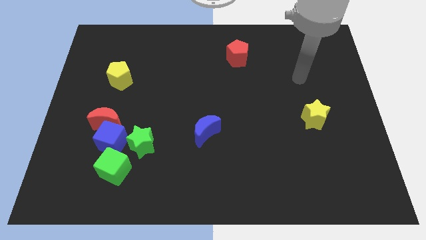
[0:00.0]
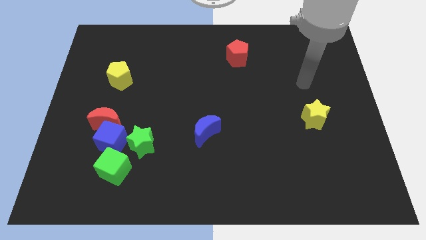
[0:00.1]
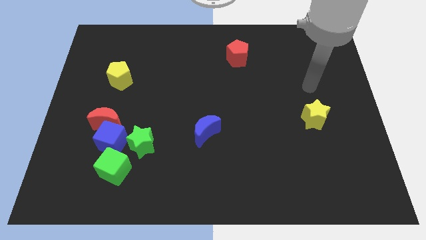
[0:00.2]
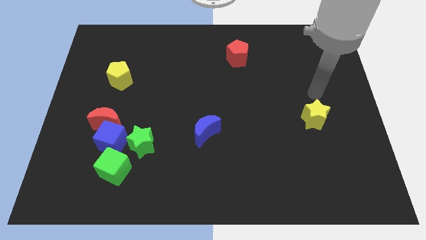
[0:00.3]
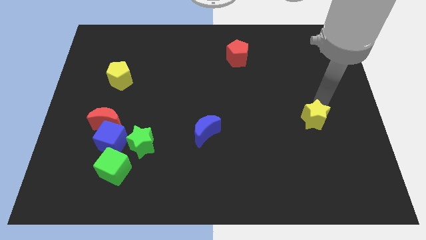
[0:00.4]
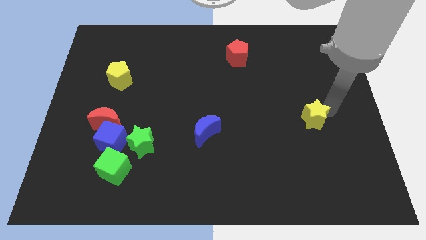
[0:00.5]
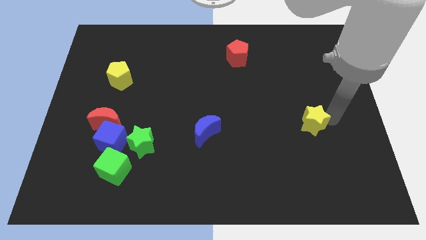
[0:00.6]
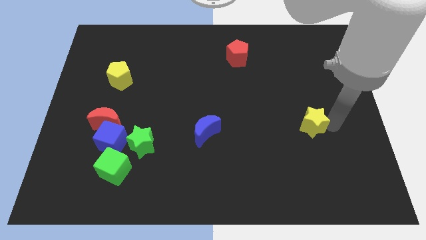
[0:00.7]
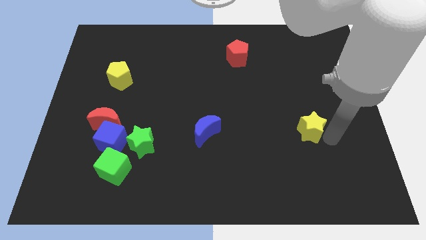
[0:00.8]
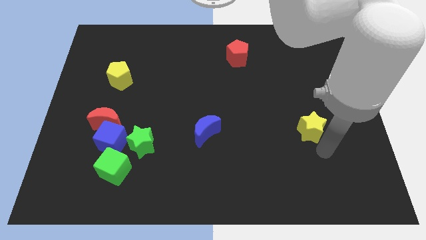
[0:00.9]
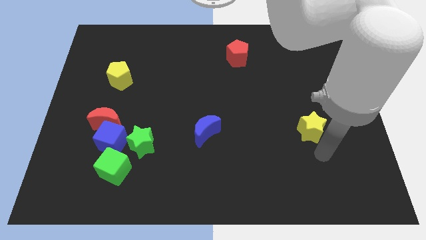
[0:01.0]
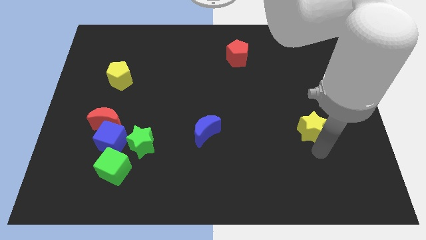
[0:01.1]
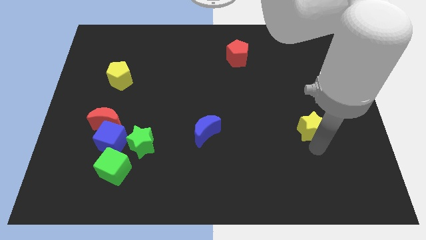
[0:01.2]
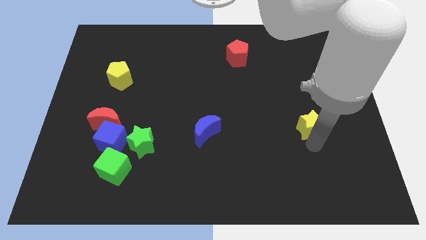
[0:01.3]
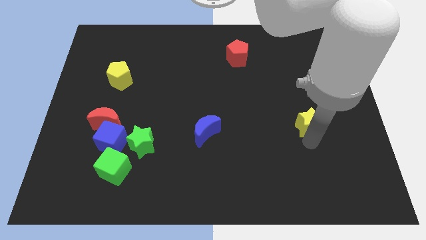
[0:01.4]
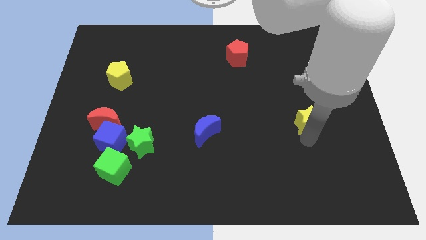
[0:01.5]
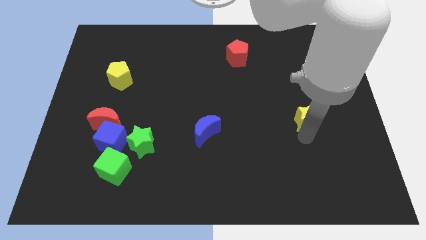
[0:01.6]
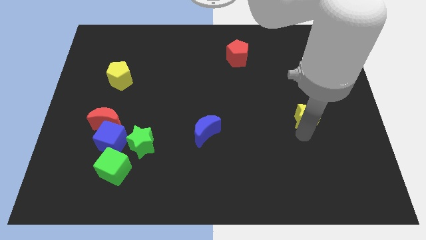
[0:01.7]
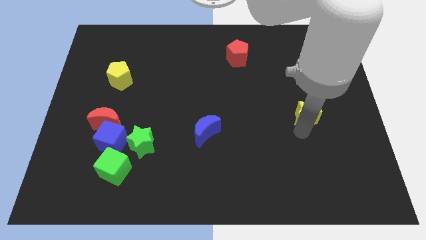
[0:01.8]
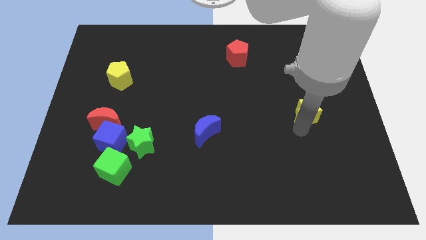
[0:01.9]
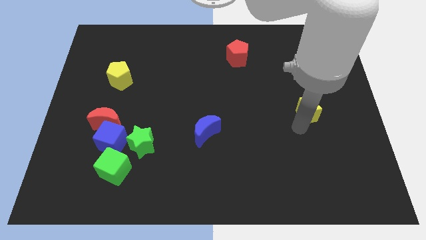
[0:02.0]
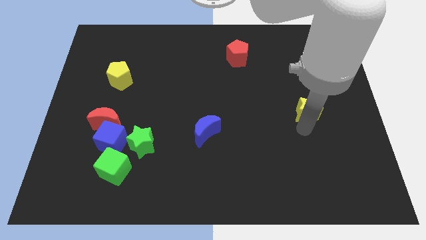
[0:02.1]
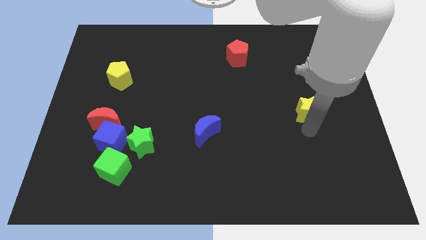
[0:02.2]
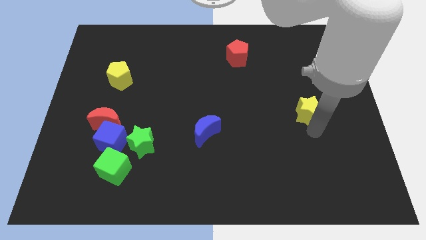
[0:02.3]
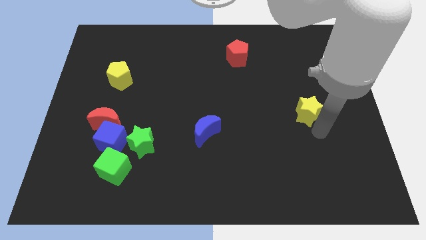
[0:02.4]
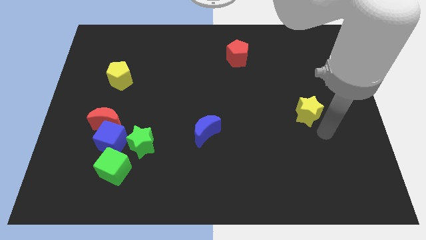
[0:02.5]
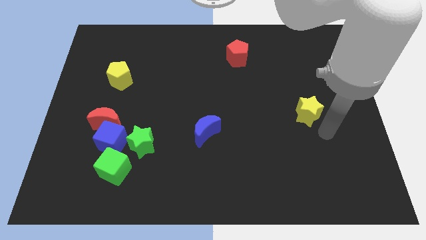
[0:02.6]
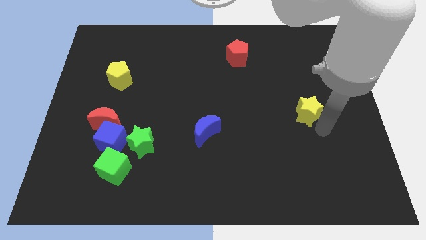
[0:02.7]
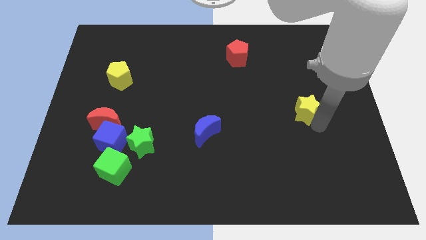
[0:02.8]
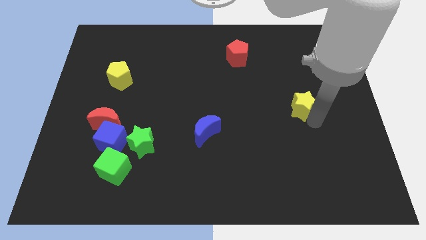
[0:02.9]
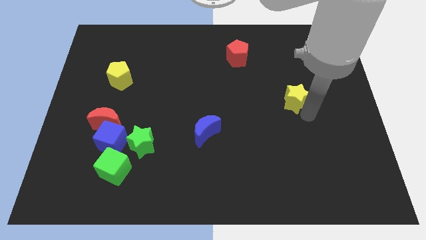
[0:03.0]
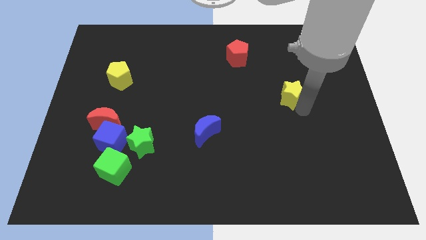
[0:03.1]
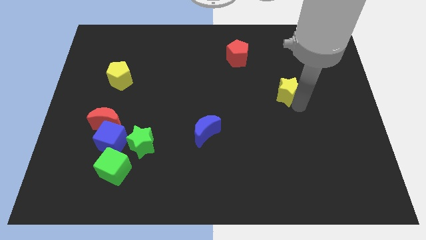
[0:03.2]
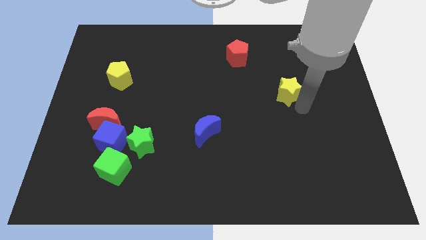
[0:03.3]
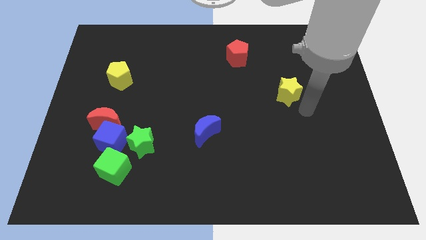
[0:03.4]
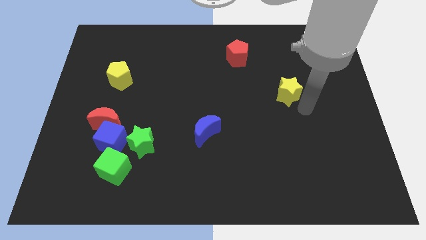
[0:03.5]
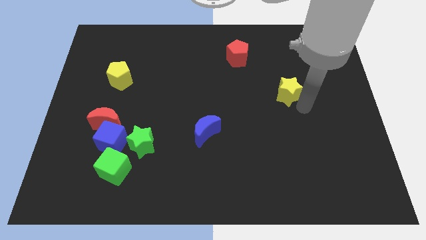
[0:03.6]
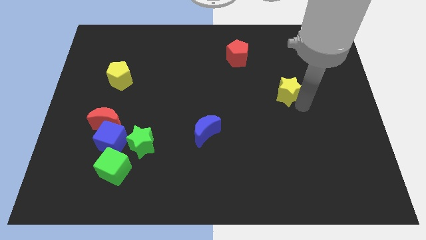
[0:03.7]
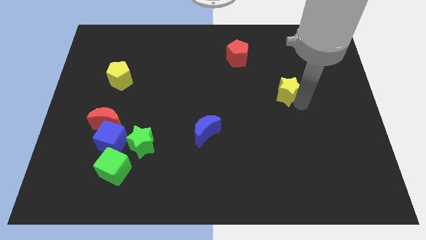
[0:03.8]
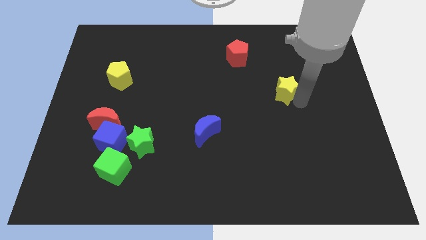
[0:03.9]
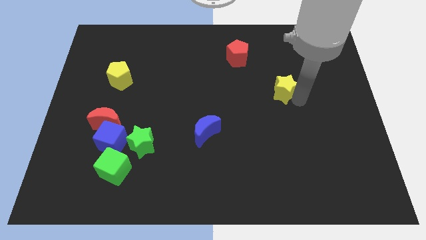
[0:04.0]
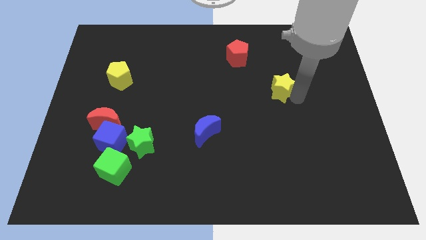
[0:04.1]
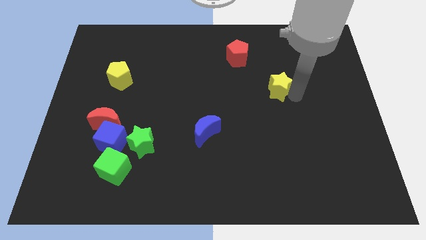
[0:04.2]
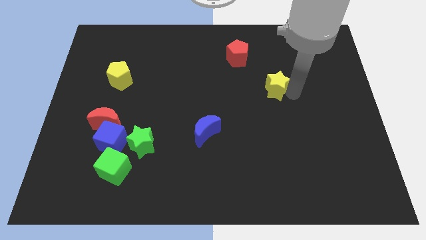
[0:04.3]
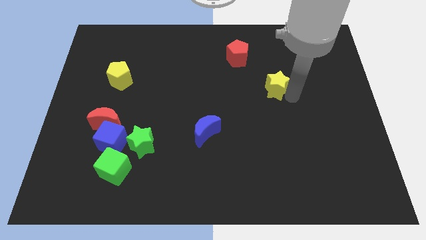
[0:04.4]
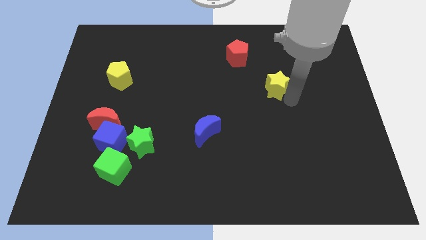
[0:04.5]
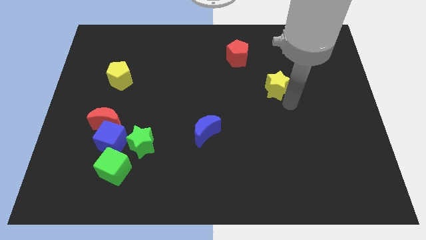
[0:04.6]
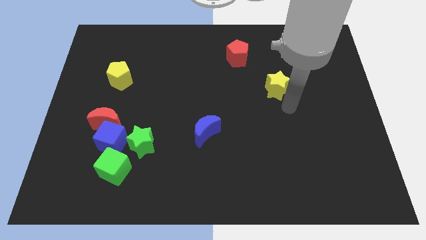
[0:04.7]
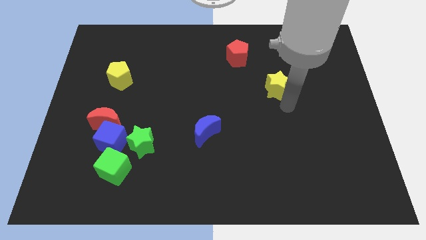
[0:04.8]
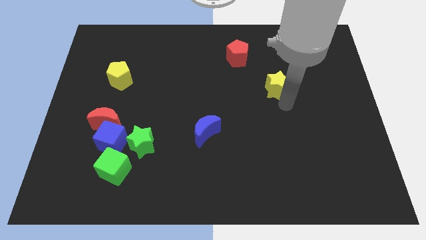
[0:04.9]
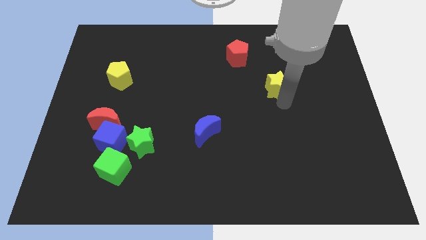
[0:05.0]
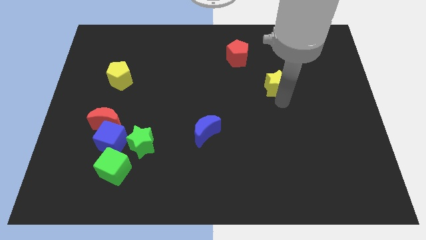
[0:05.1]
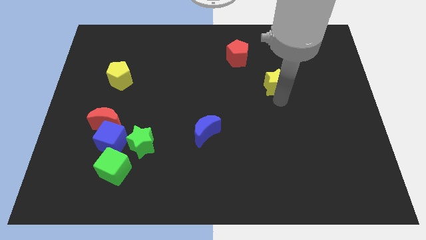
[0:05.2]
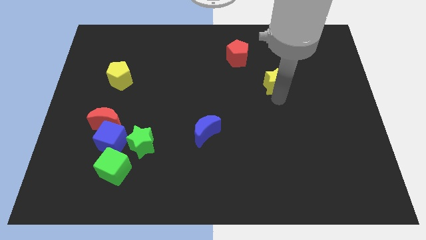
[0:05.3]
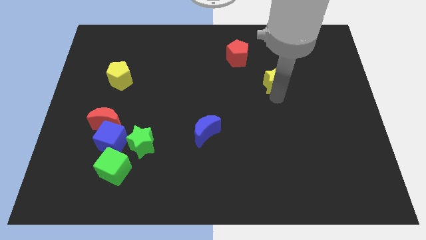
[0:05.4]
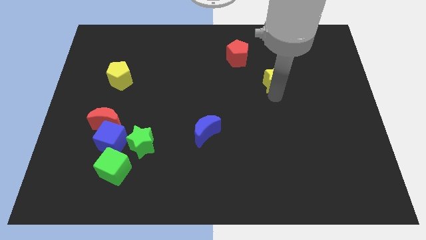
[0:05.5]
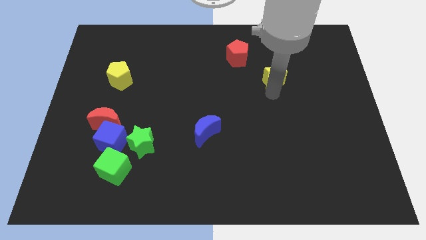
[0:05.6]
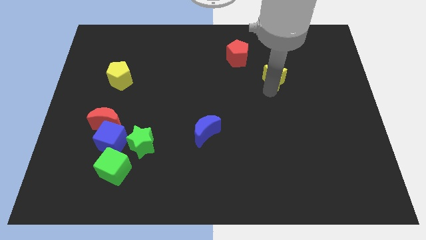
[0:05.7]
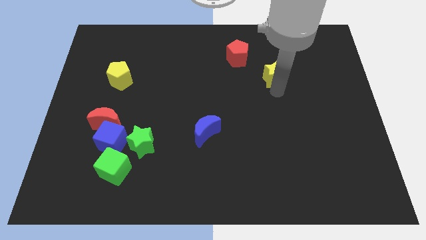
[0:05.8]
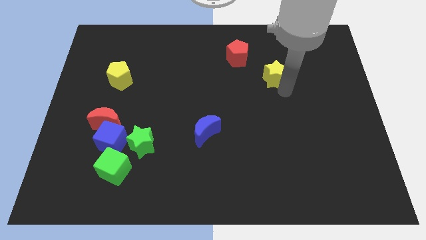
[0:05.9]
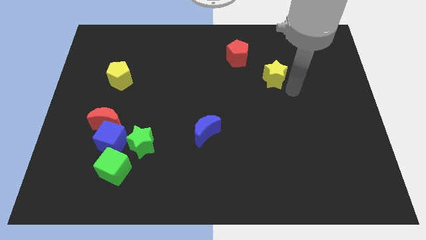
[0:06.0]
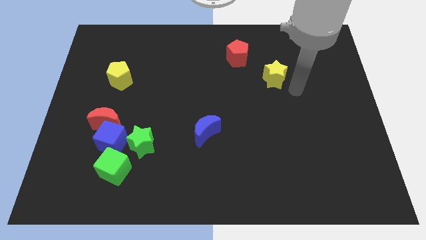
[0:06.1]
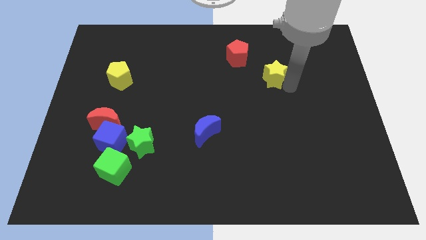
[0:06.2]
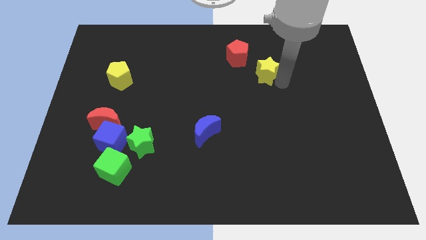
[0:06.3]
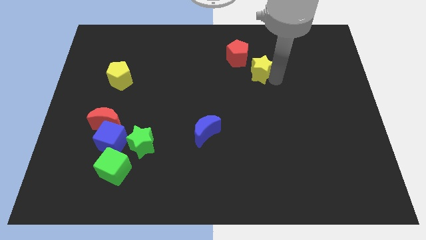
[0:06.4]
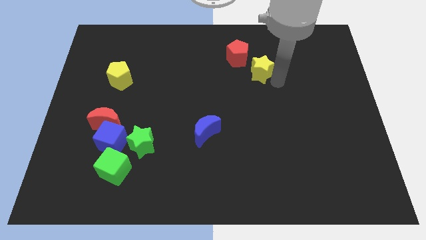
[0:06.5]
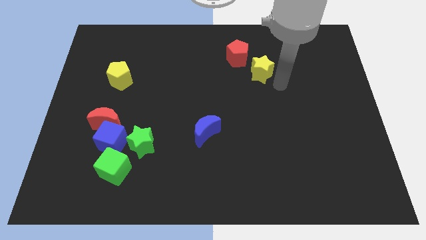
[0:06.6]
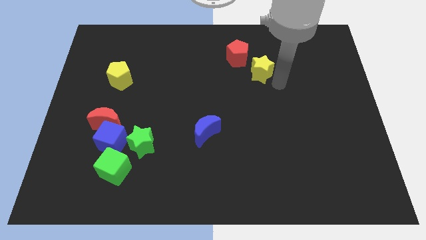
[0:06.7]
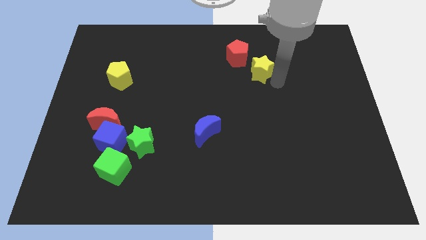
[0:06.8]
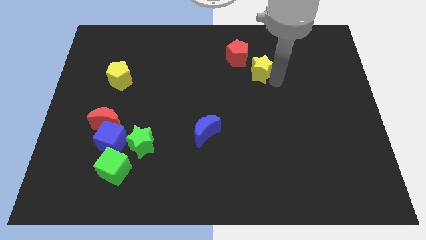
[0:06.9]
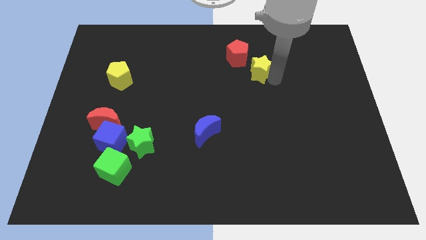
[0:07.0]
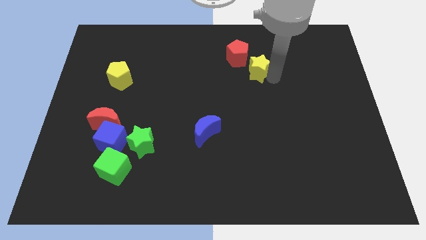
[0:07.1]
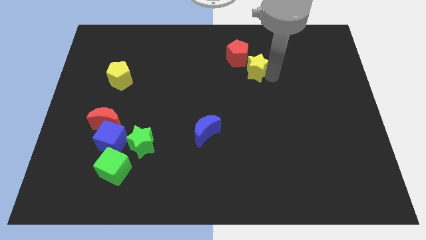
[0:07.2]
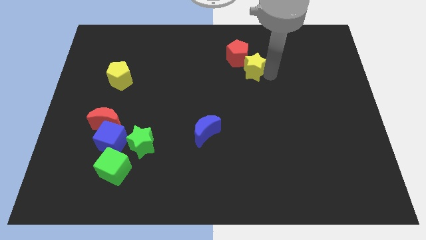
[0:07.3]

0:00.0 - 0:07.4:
slide the yellow star to the red pentagon
